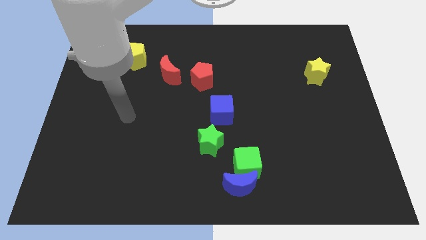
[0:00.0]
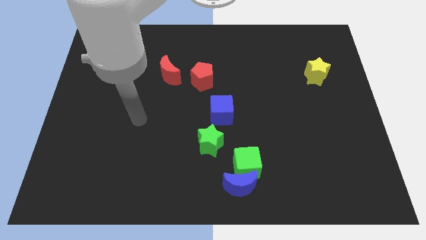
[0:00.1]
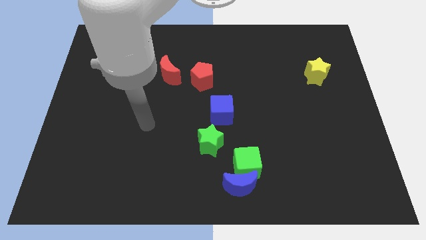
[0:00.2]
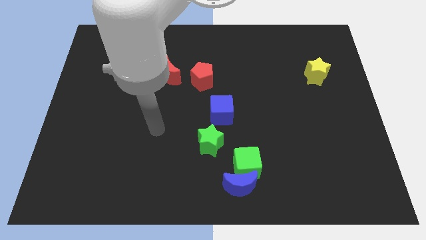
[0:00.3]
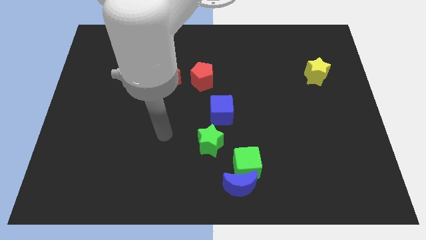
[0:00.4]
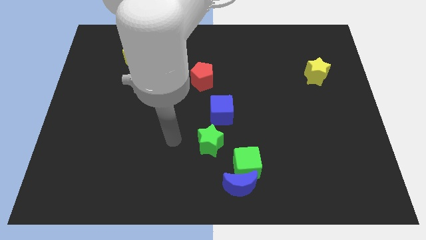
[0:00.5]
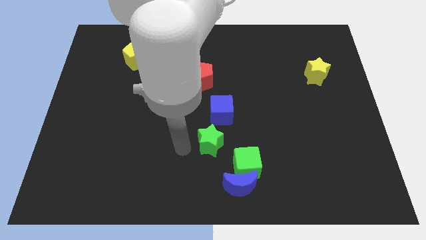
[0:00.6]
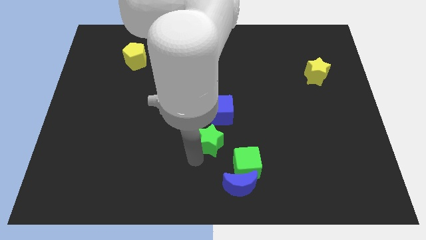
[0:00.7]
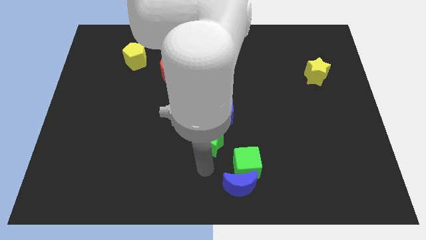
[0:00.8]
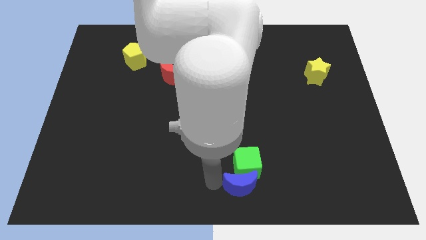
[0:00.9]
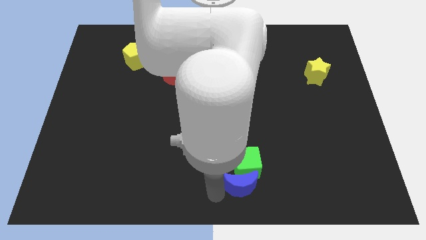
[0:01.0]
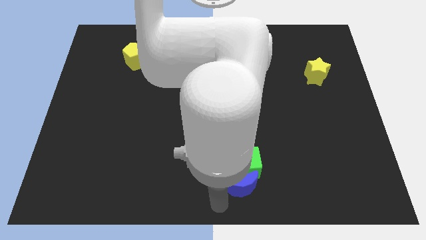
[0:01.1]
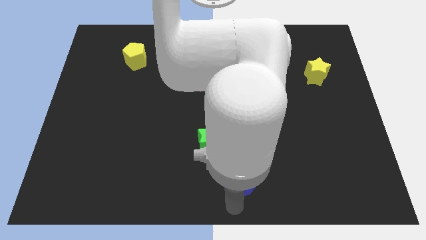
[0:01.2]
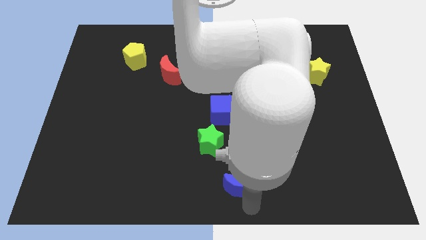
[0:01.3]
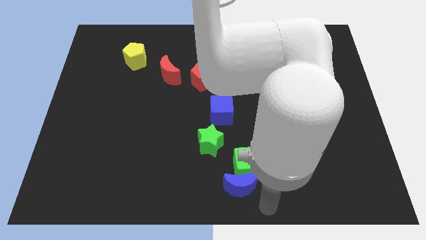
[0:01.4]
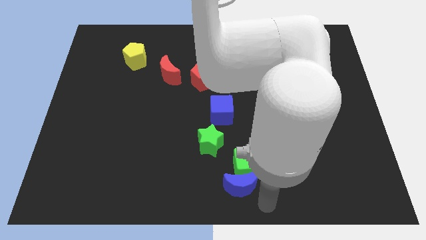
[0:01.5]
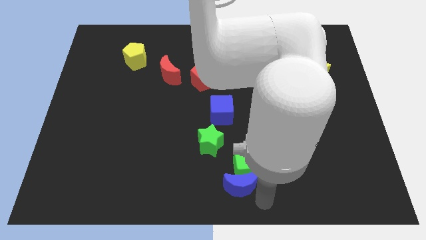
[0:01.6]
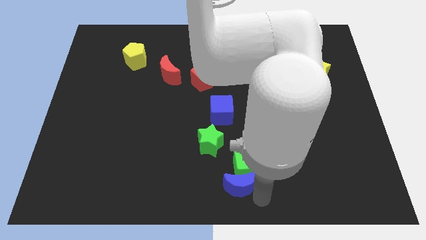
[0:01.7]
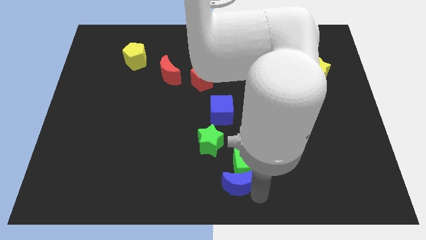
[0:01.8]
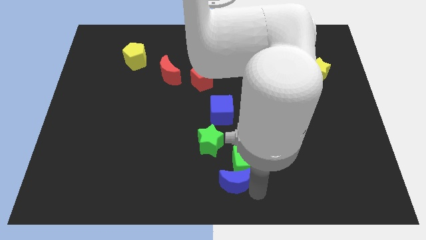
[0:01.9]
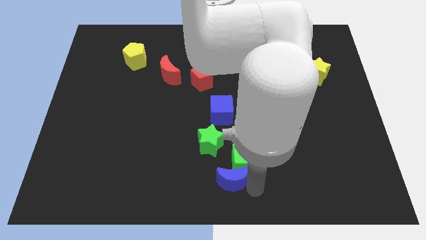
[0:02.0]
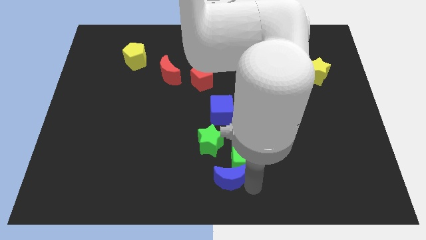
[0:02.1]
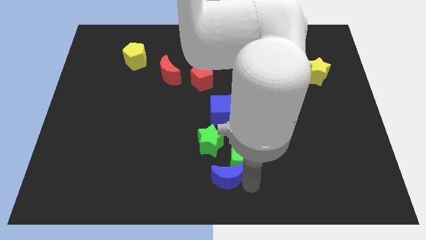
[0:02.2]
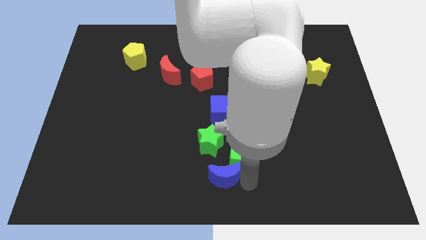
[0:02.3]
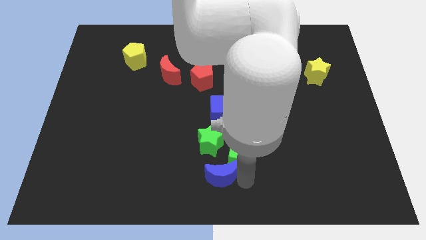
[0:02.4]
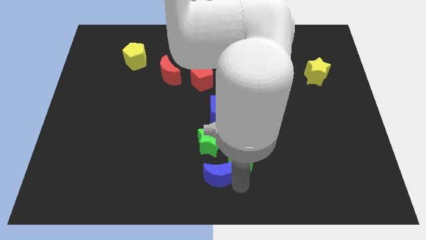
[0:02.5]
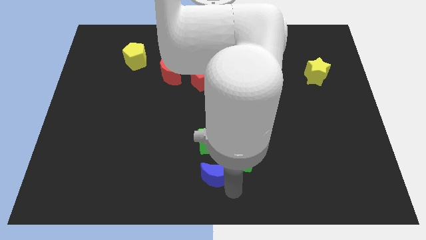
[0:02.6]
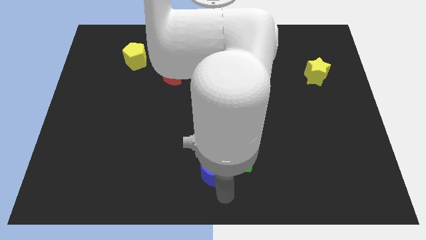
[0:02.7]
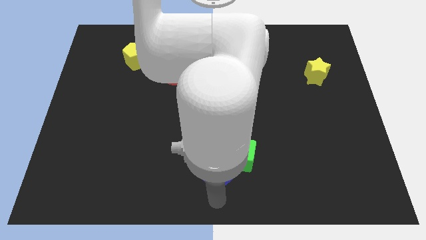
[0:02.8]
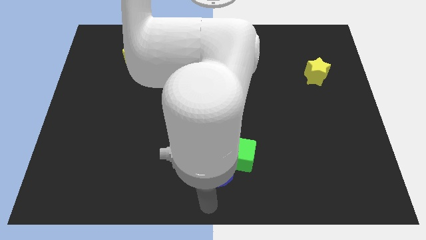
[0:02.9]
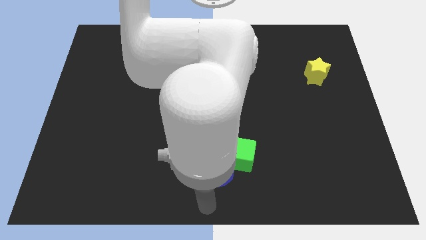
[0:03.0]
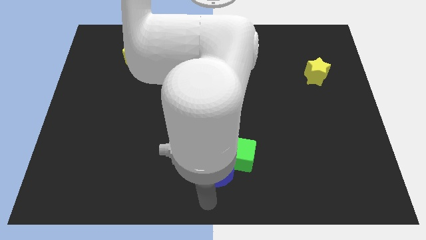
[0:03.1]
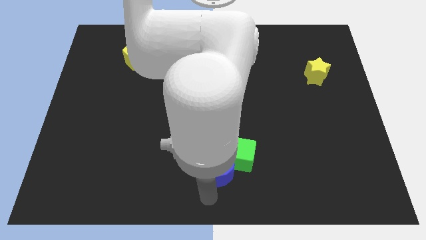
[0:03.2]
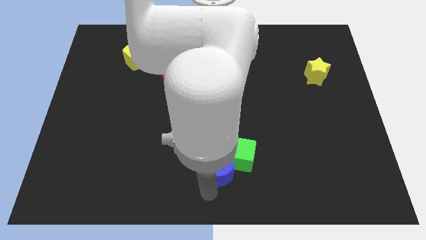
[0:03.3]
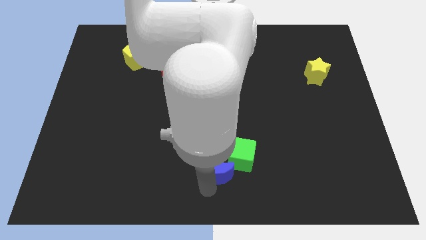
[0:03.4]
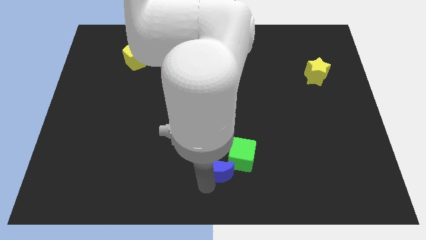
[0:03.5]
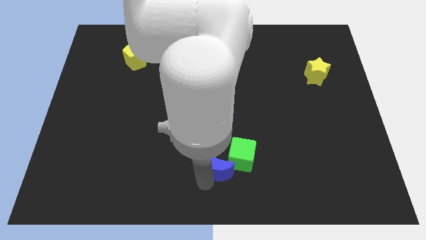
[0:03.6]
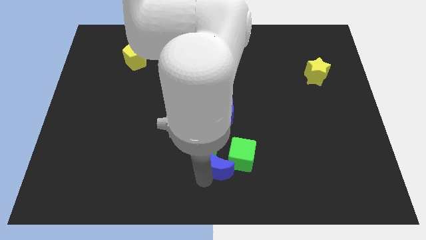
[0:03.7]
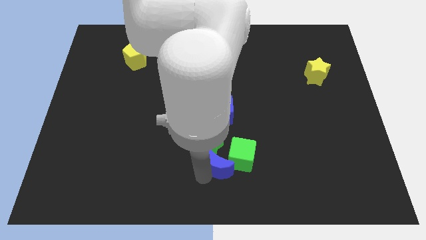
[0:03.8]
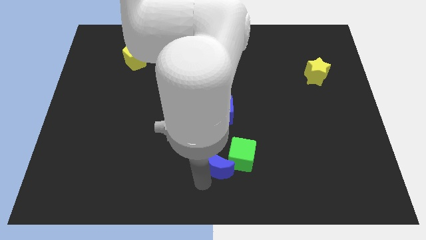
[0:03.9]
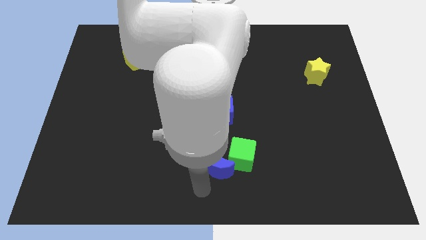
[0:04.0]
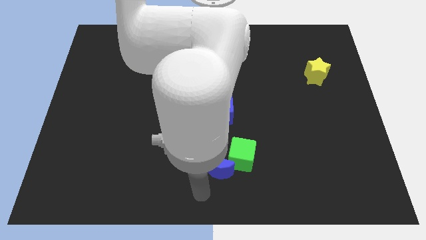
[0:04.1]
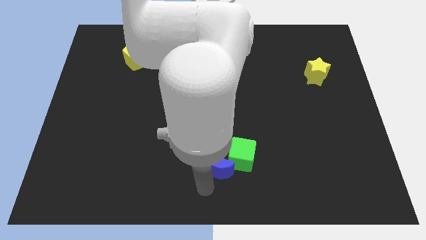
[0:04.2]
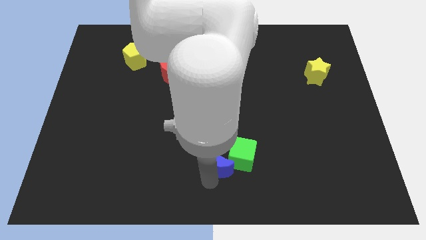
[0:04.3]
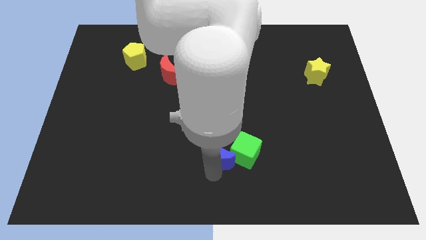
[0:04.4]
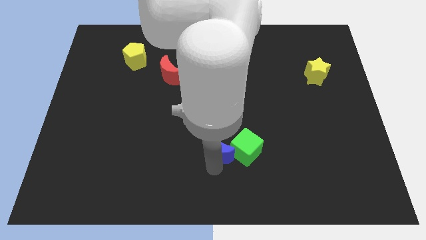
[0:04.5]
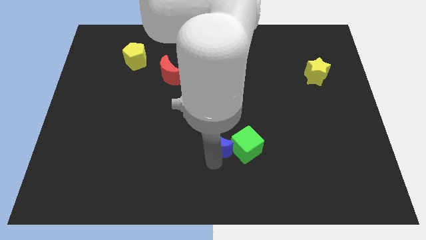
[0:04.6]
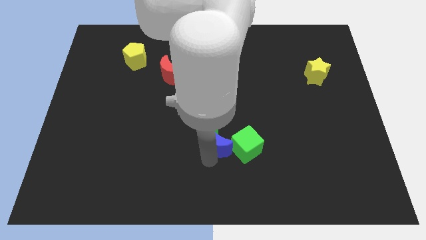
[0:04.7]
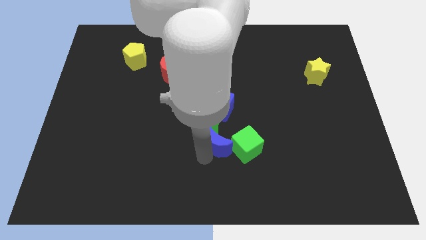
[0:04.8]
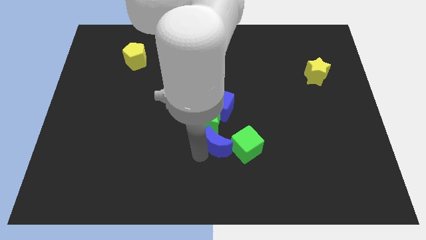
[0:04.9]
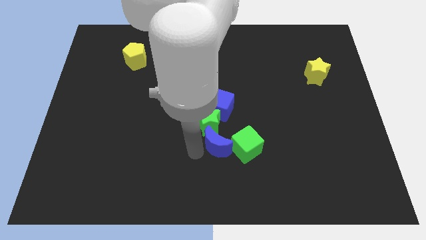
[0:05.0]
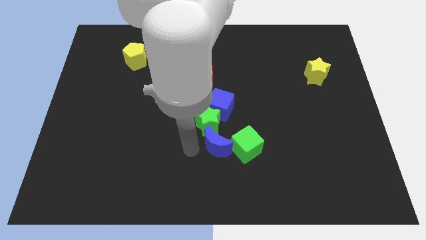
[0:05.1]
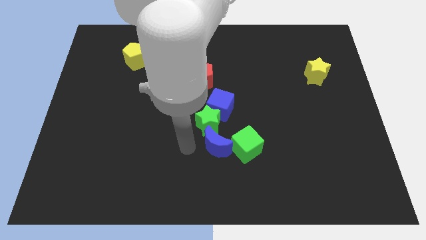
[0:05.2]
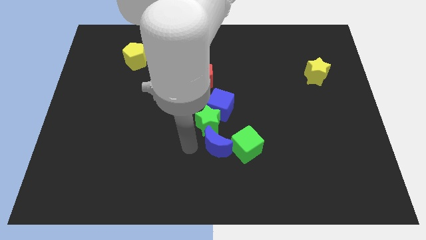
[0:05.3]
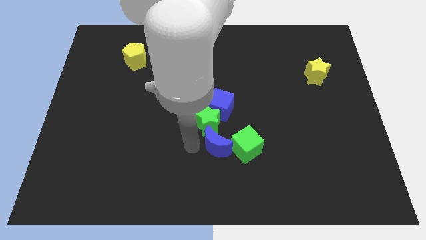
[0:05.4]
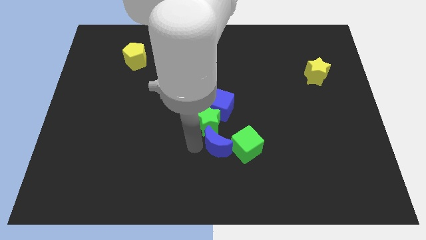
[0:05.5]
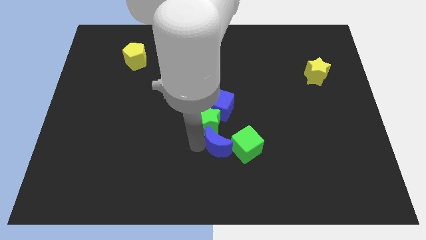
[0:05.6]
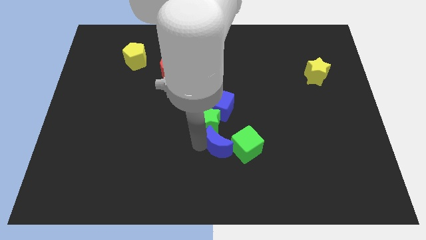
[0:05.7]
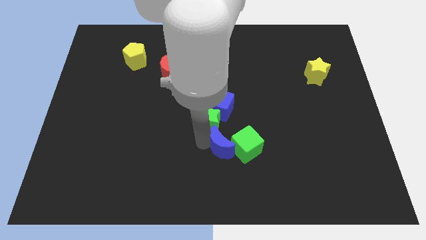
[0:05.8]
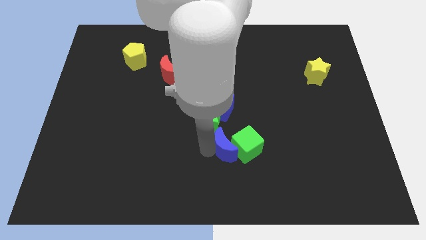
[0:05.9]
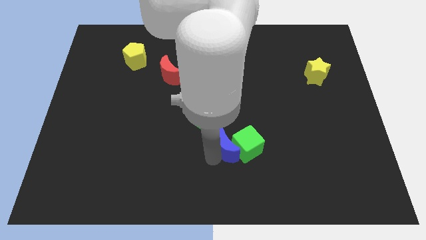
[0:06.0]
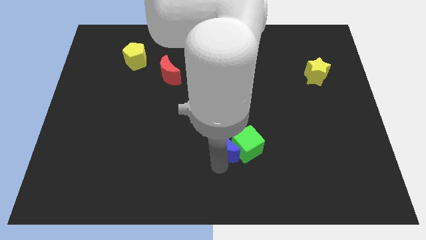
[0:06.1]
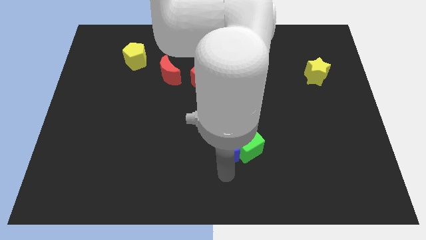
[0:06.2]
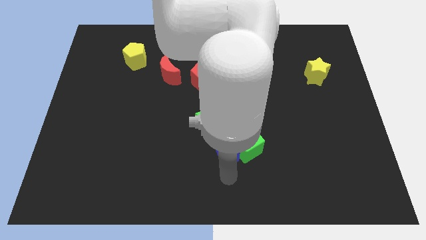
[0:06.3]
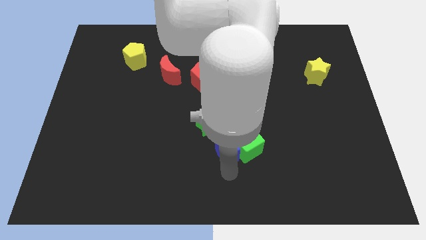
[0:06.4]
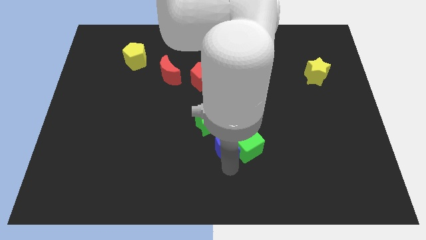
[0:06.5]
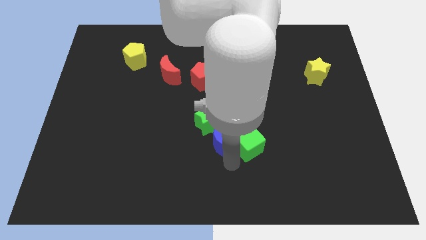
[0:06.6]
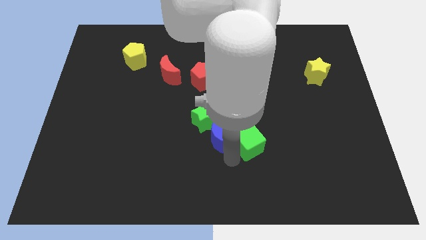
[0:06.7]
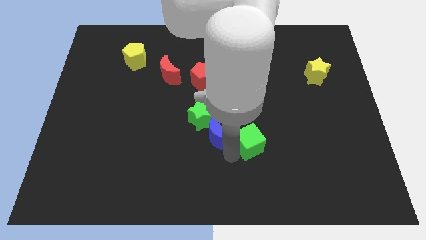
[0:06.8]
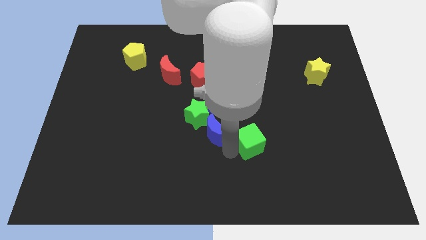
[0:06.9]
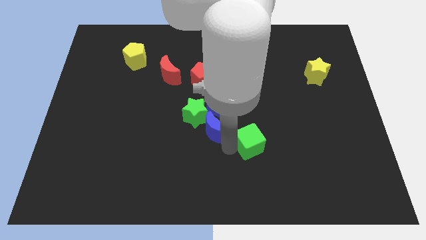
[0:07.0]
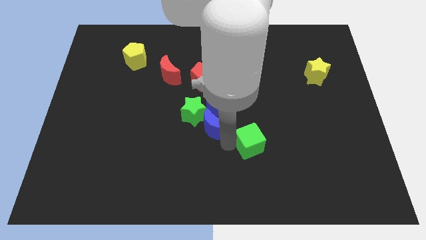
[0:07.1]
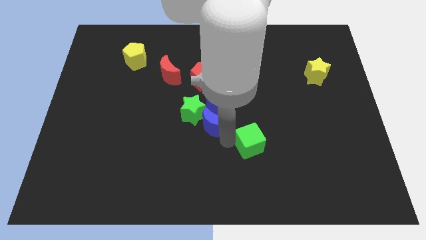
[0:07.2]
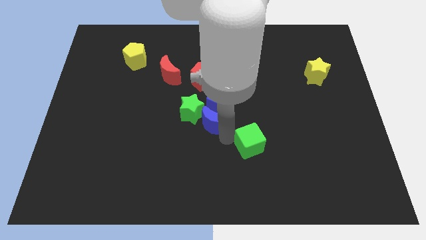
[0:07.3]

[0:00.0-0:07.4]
slide the blue moon to the blue cube
